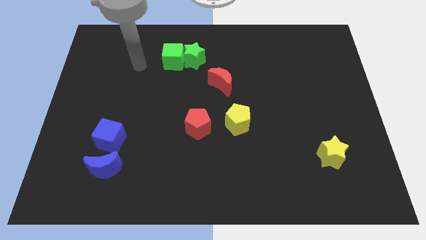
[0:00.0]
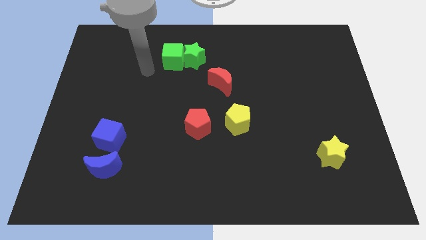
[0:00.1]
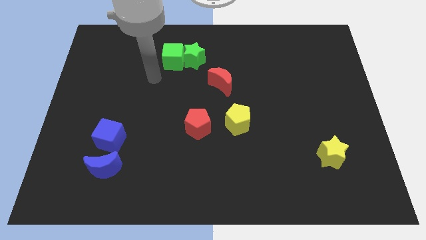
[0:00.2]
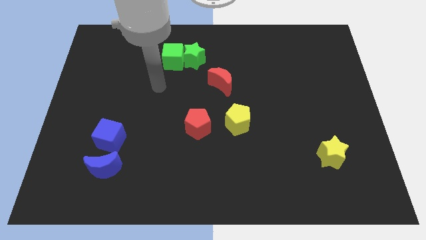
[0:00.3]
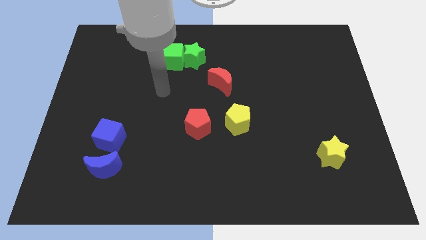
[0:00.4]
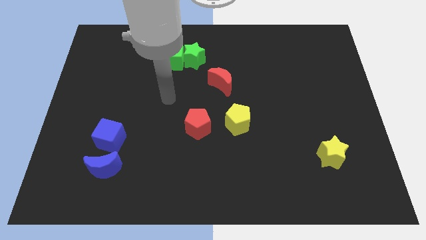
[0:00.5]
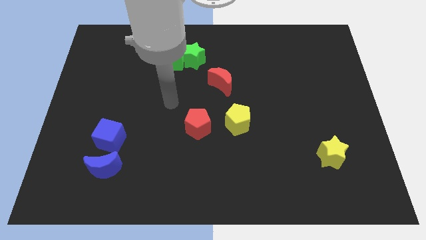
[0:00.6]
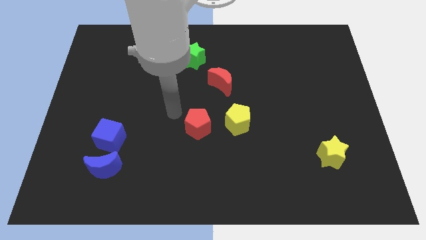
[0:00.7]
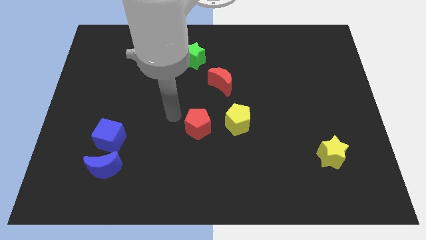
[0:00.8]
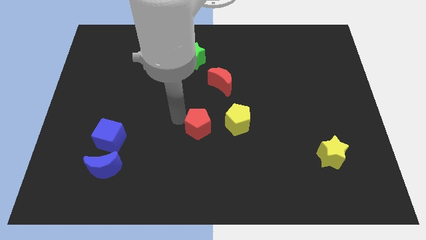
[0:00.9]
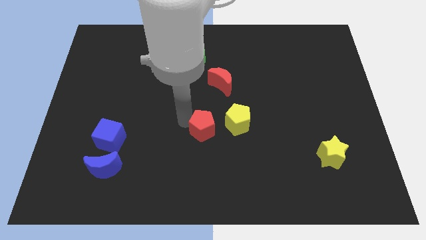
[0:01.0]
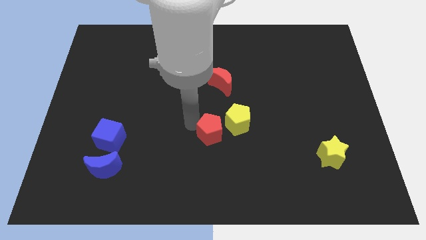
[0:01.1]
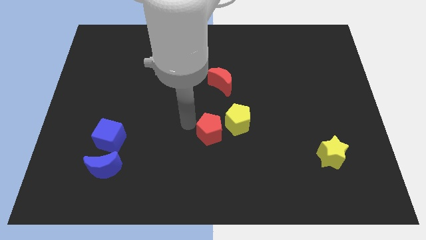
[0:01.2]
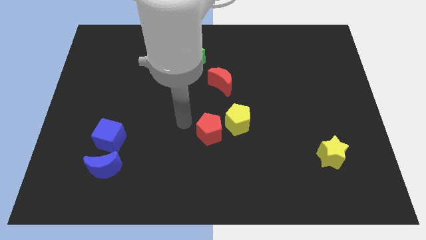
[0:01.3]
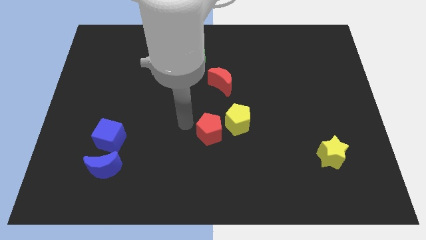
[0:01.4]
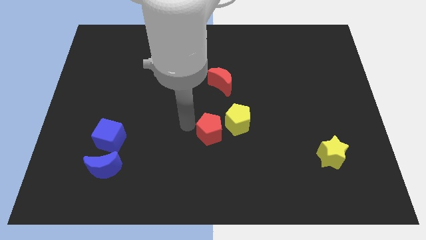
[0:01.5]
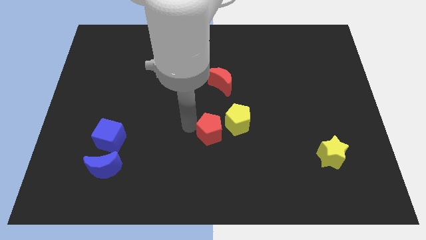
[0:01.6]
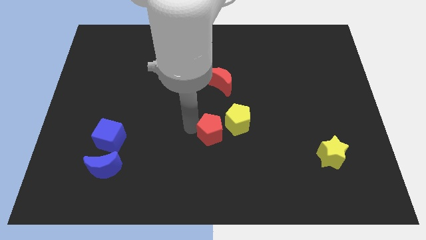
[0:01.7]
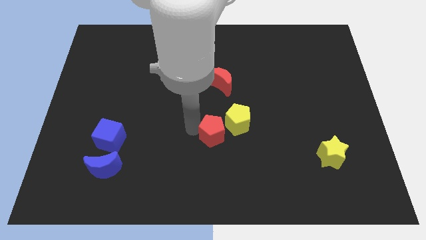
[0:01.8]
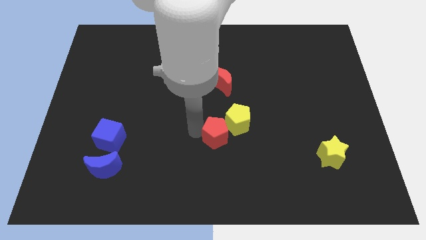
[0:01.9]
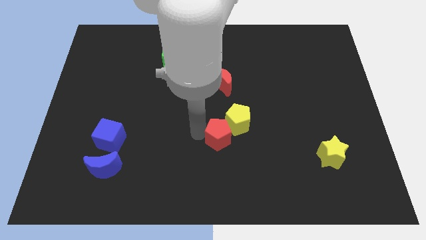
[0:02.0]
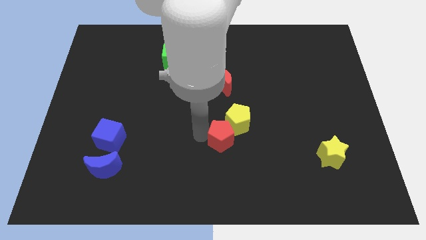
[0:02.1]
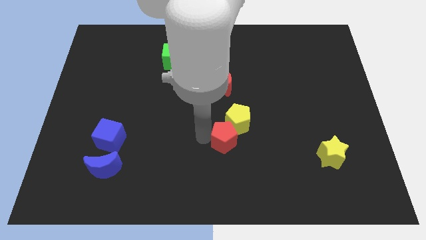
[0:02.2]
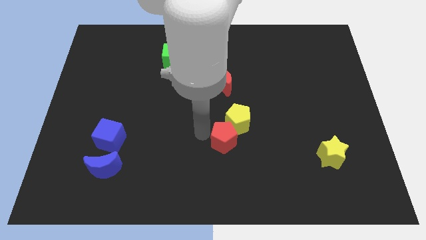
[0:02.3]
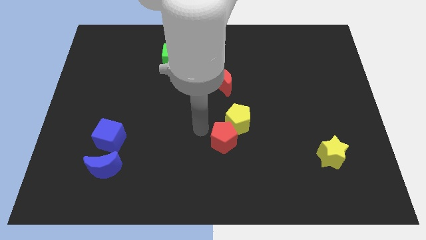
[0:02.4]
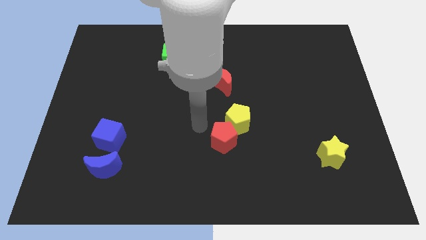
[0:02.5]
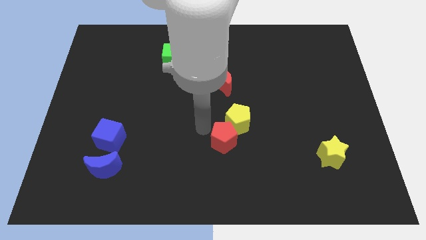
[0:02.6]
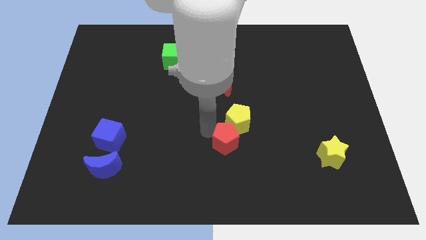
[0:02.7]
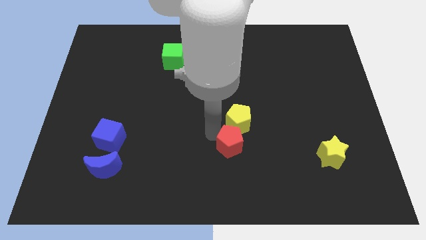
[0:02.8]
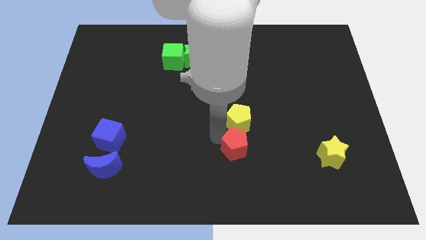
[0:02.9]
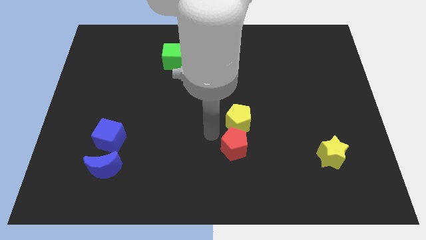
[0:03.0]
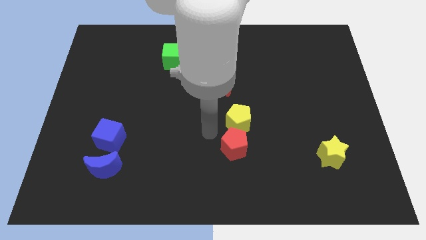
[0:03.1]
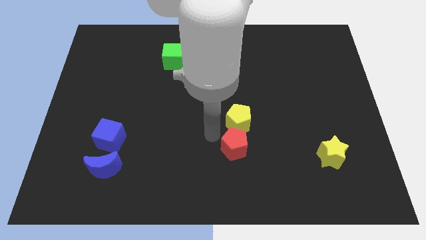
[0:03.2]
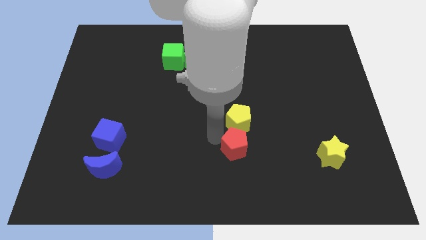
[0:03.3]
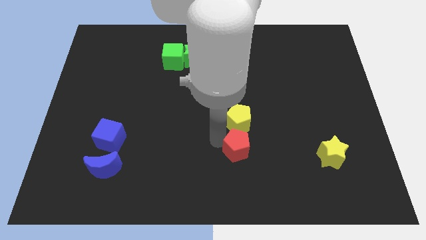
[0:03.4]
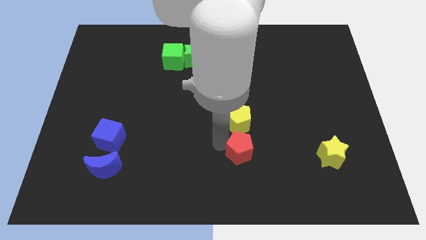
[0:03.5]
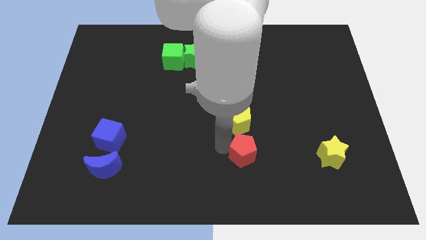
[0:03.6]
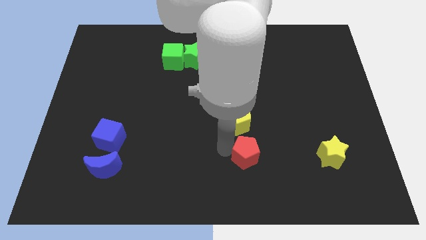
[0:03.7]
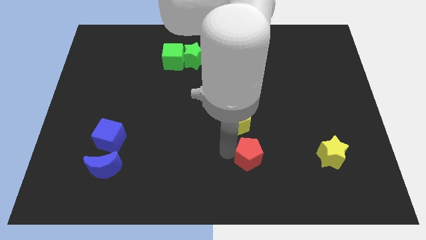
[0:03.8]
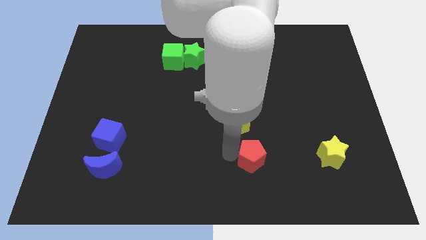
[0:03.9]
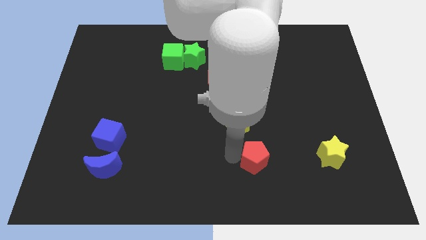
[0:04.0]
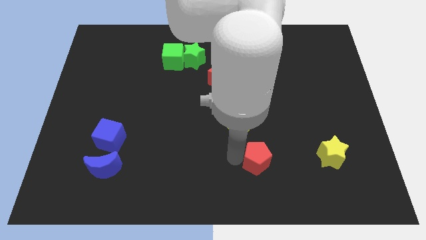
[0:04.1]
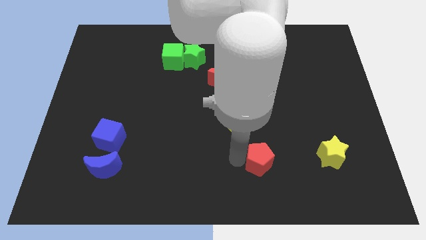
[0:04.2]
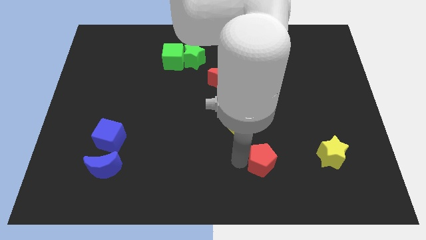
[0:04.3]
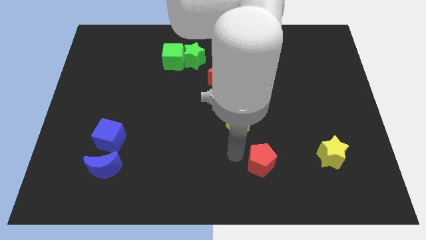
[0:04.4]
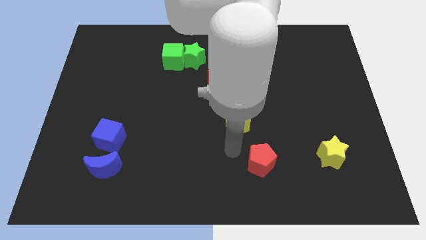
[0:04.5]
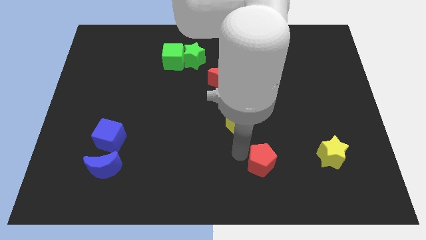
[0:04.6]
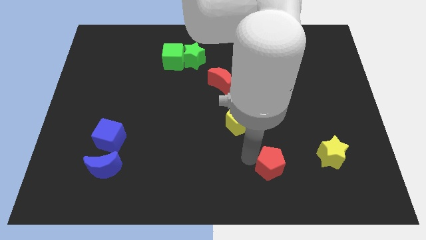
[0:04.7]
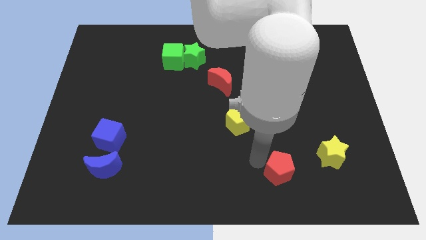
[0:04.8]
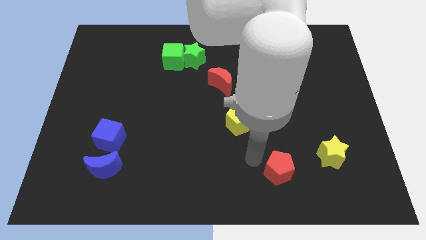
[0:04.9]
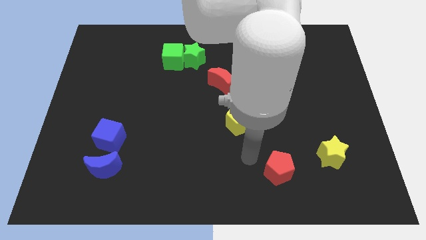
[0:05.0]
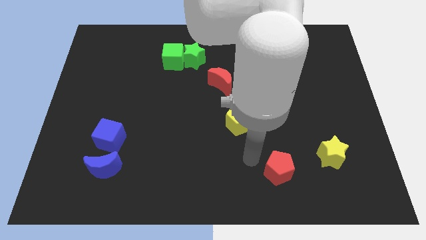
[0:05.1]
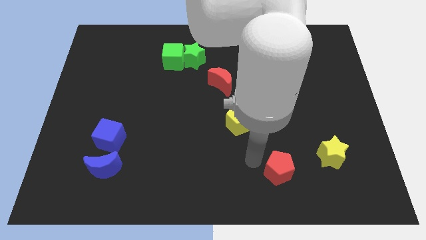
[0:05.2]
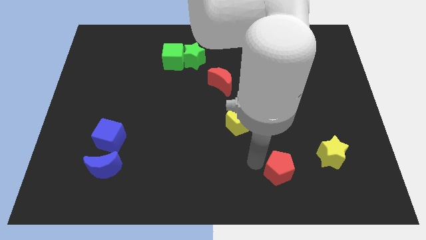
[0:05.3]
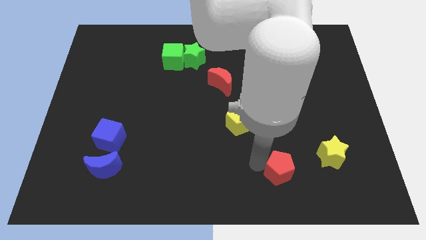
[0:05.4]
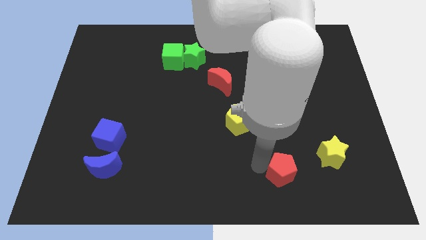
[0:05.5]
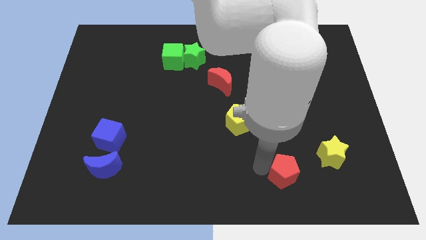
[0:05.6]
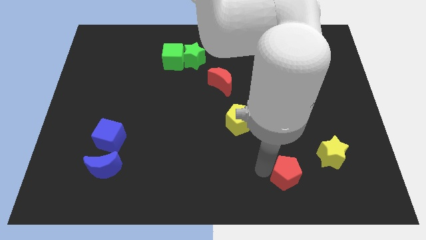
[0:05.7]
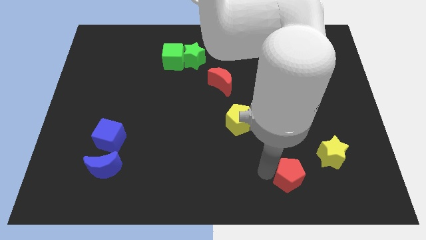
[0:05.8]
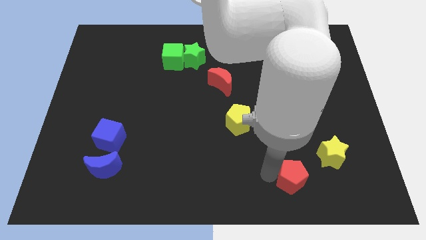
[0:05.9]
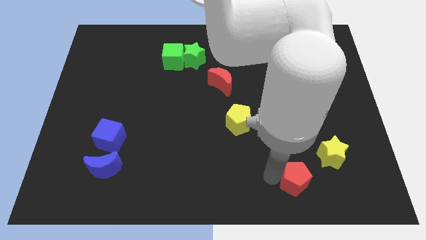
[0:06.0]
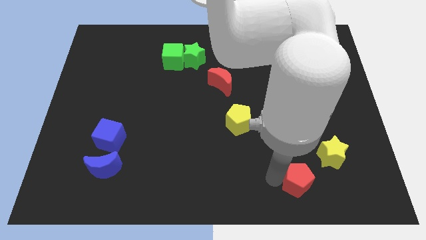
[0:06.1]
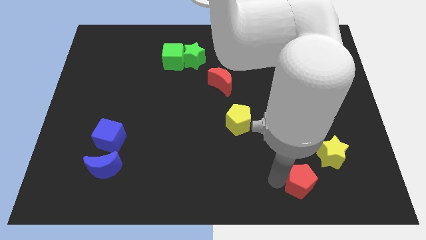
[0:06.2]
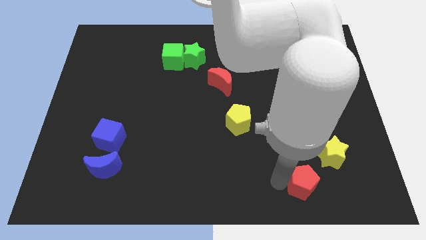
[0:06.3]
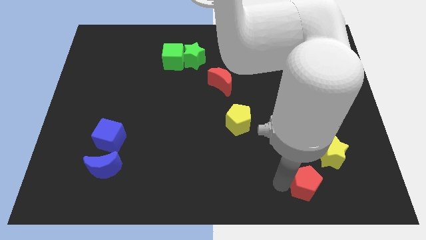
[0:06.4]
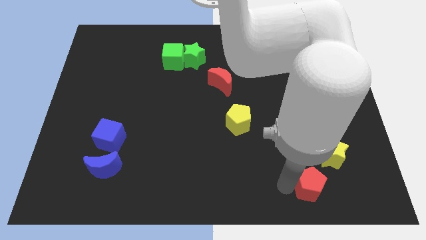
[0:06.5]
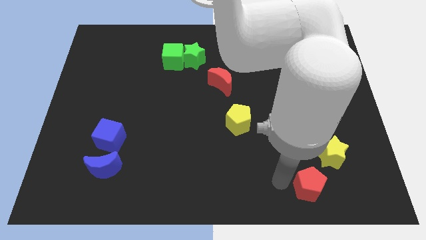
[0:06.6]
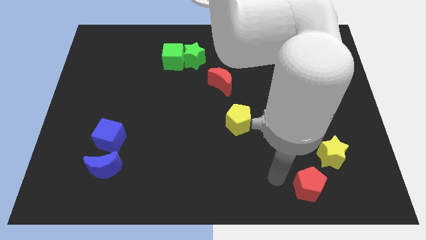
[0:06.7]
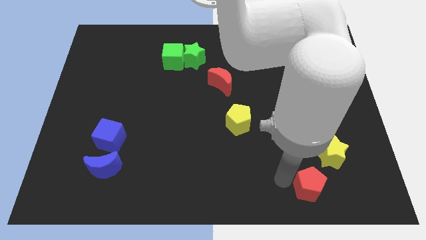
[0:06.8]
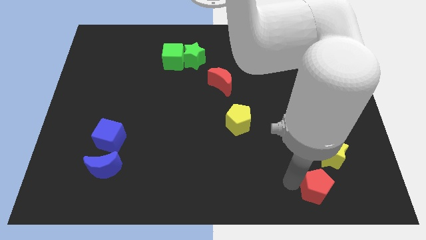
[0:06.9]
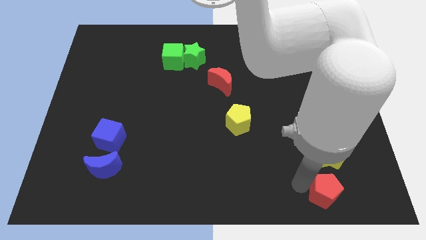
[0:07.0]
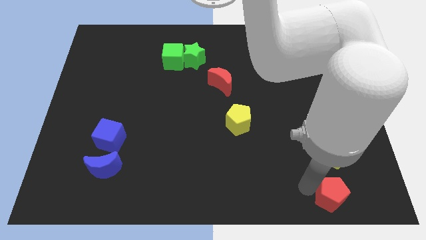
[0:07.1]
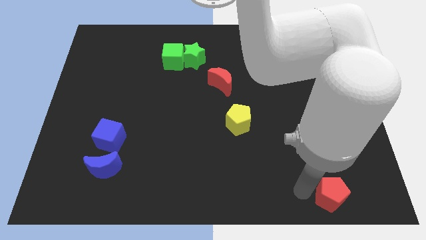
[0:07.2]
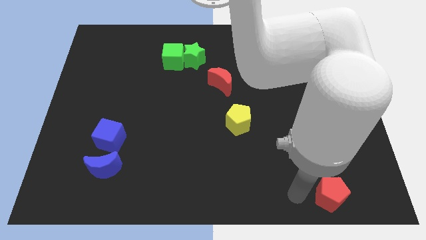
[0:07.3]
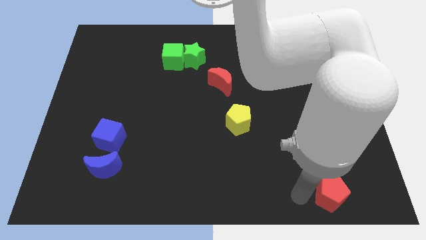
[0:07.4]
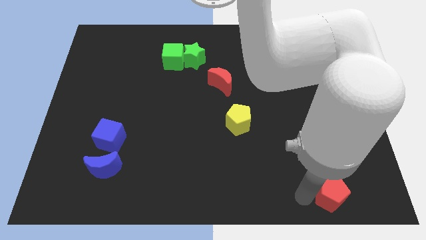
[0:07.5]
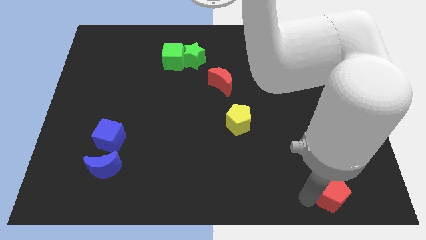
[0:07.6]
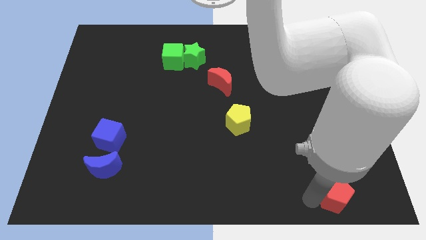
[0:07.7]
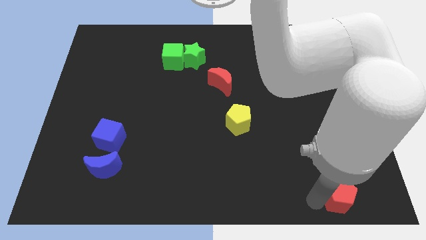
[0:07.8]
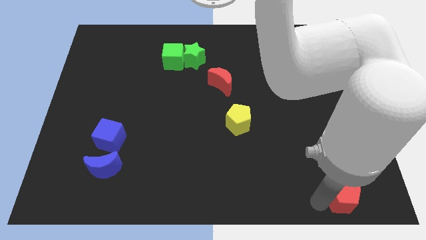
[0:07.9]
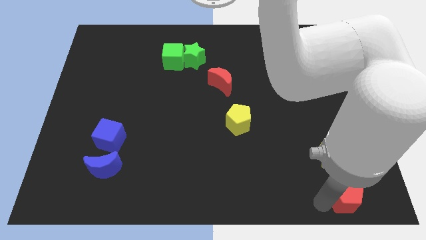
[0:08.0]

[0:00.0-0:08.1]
put the red pentagon to the bottom right corner
